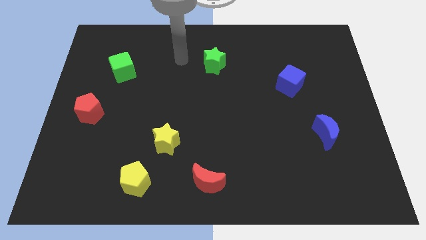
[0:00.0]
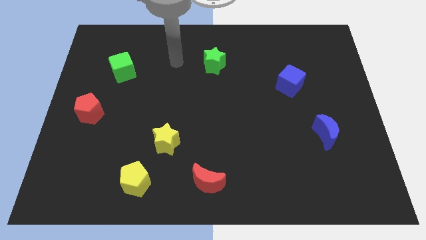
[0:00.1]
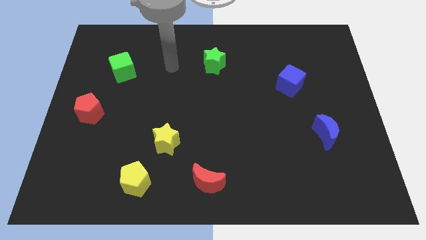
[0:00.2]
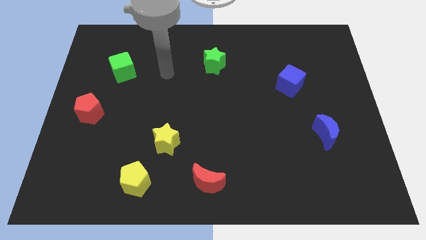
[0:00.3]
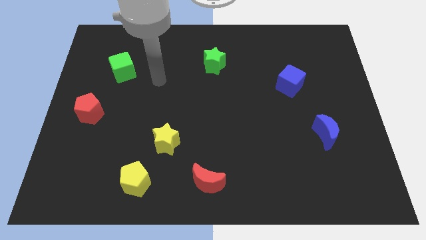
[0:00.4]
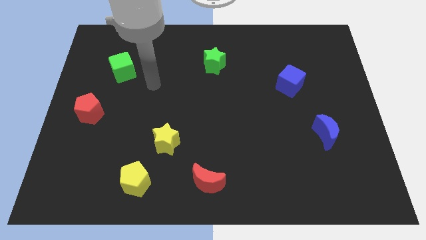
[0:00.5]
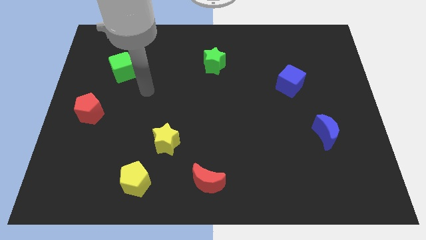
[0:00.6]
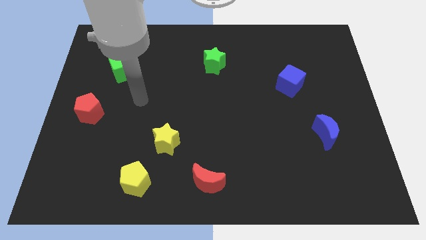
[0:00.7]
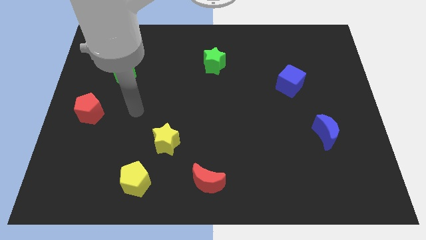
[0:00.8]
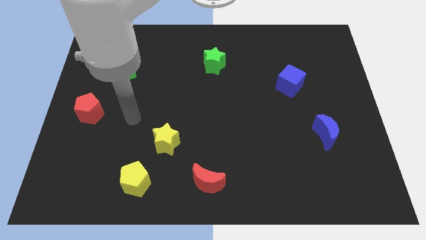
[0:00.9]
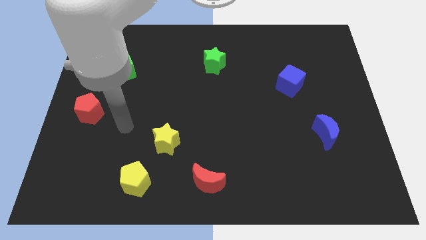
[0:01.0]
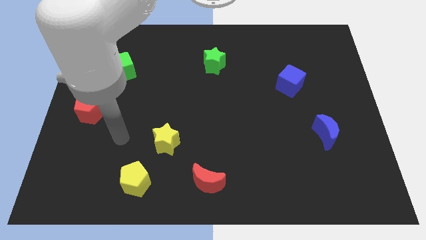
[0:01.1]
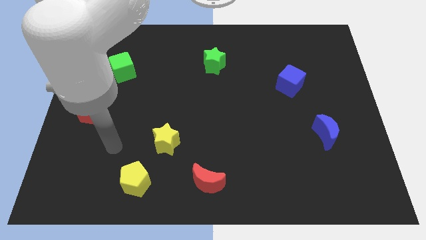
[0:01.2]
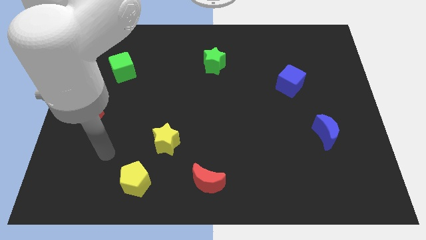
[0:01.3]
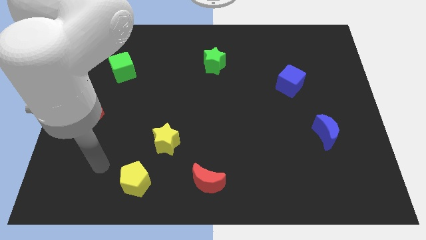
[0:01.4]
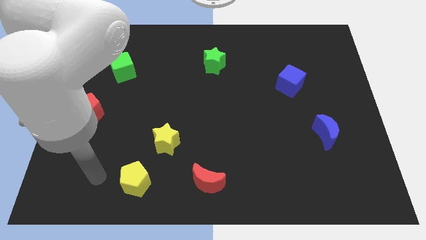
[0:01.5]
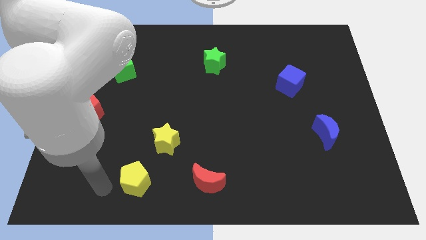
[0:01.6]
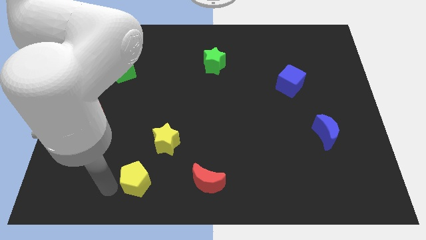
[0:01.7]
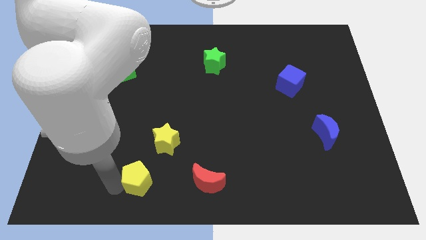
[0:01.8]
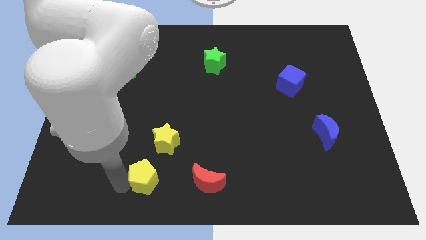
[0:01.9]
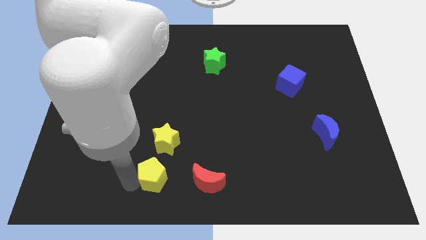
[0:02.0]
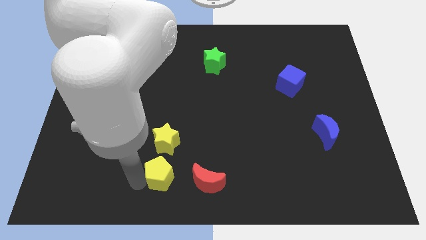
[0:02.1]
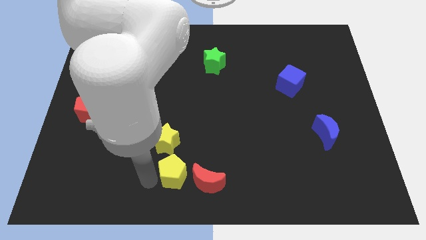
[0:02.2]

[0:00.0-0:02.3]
slightly push the yellow pentagon to the right

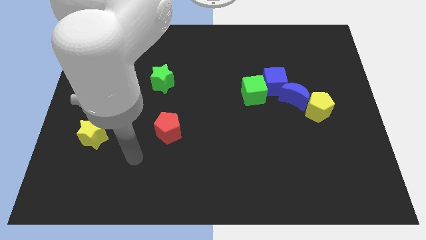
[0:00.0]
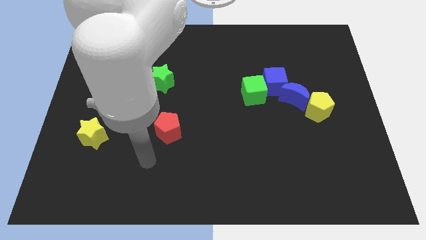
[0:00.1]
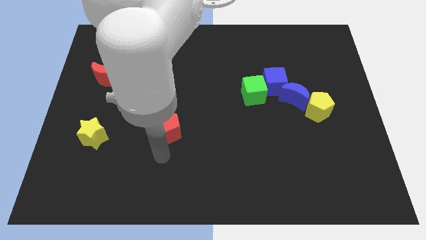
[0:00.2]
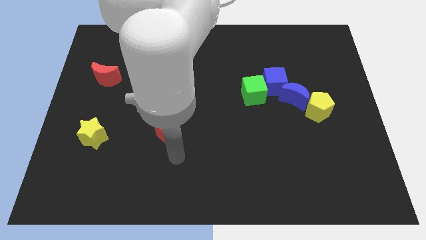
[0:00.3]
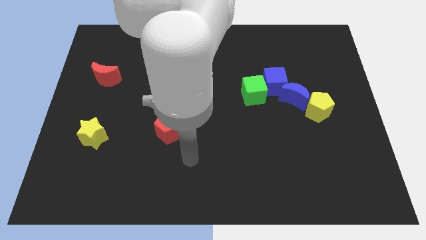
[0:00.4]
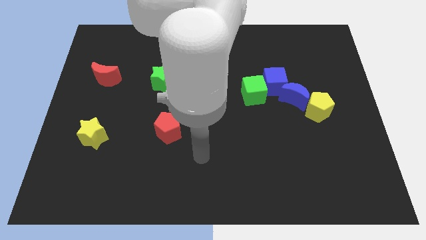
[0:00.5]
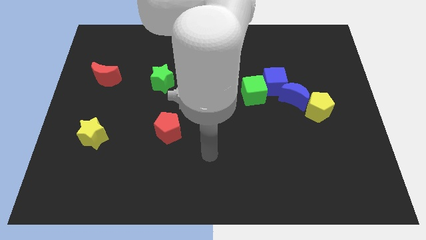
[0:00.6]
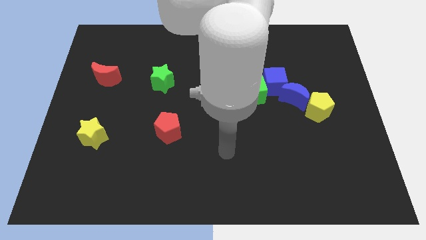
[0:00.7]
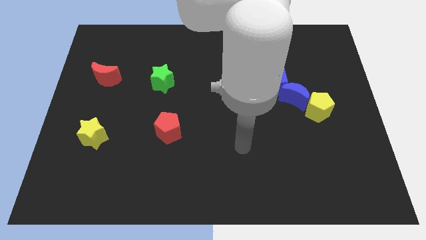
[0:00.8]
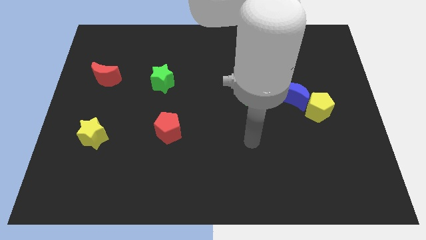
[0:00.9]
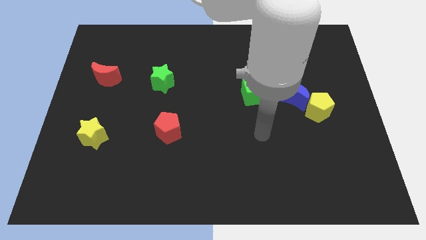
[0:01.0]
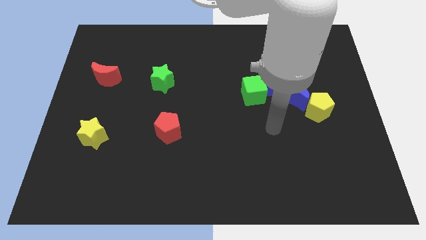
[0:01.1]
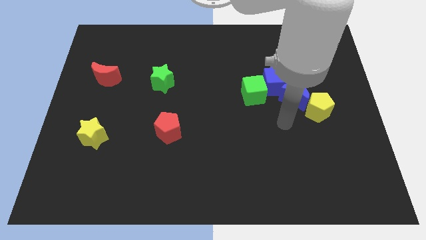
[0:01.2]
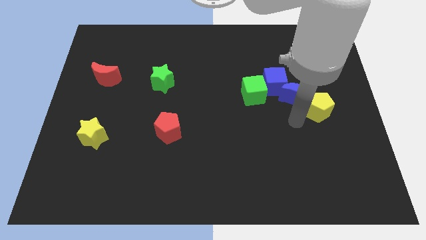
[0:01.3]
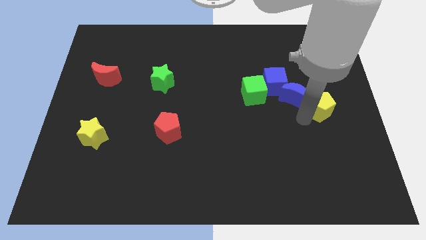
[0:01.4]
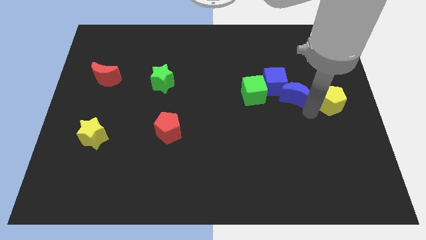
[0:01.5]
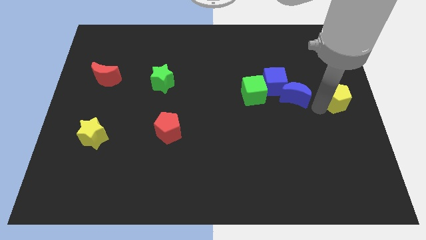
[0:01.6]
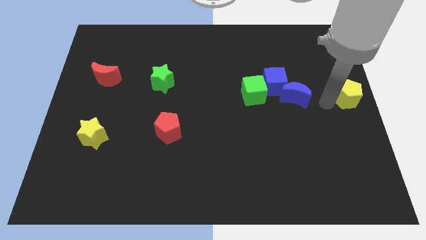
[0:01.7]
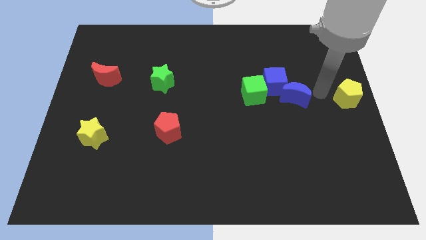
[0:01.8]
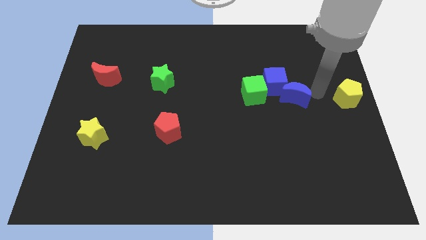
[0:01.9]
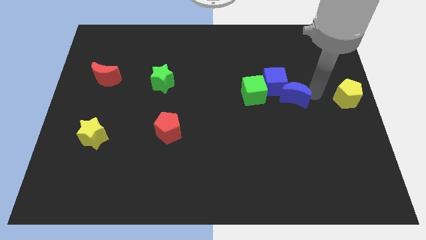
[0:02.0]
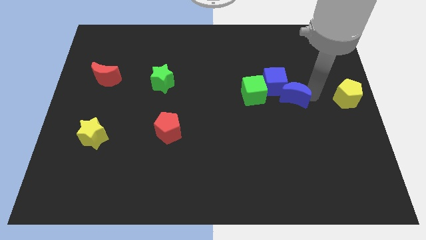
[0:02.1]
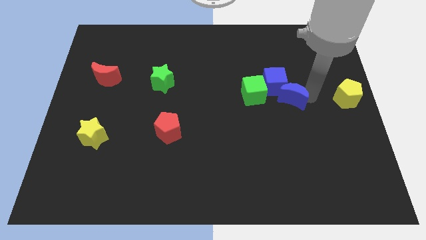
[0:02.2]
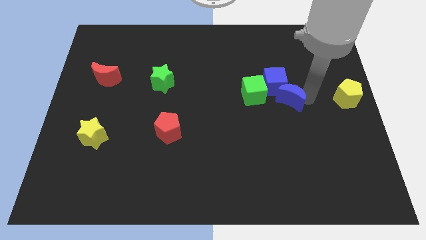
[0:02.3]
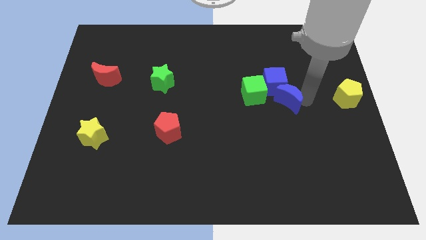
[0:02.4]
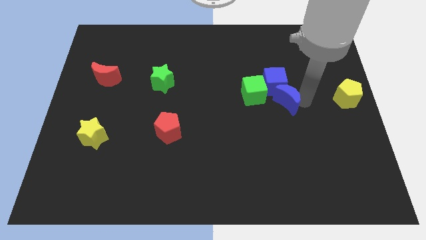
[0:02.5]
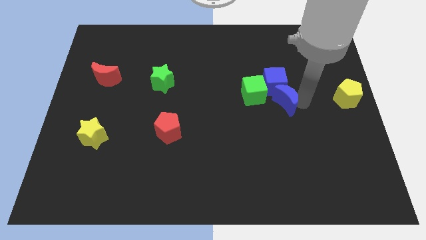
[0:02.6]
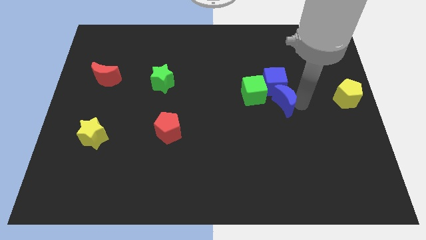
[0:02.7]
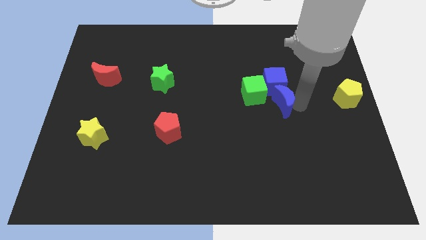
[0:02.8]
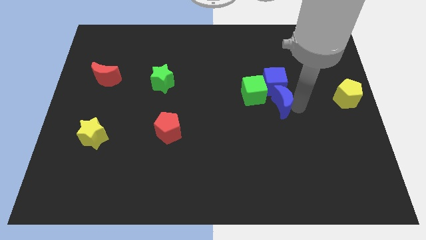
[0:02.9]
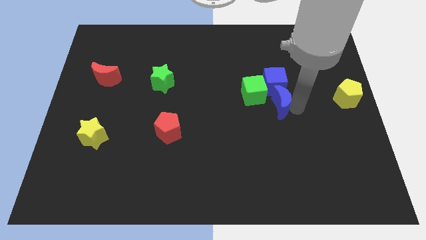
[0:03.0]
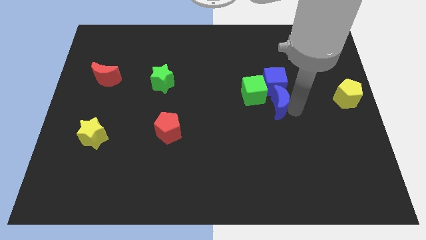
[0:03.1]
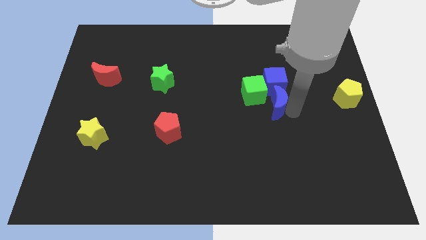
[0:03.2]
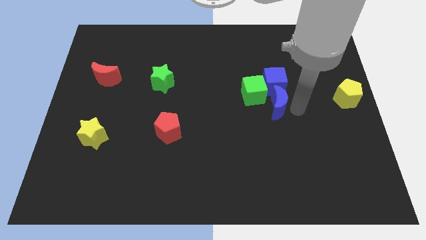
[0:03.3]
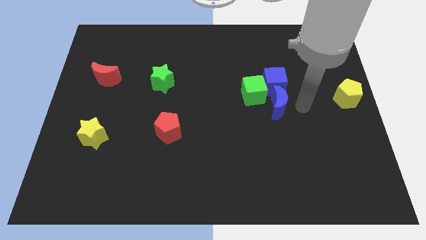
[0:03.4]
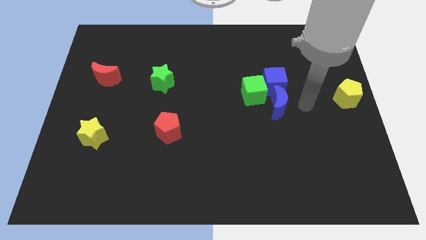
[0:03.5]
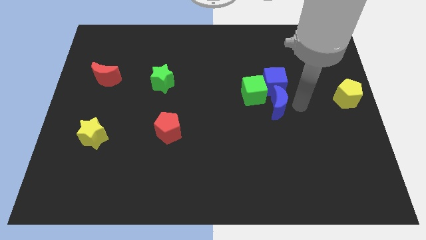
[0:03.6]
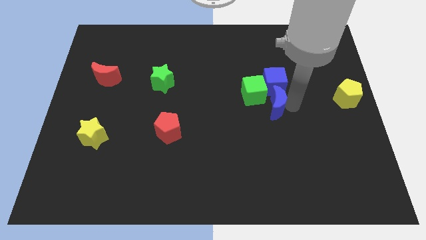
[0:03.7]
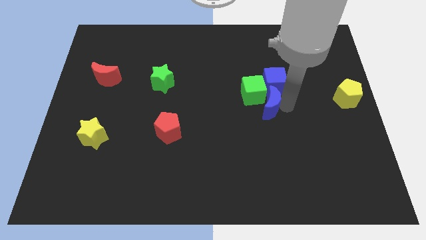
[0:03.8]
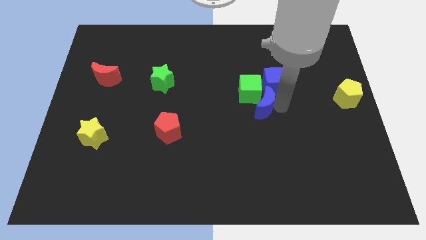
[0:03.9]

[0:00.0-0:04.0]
slightly move the blue moon left

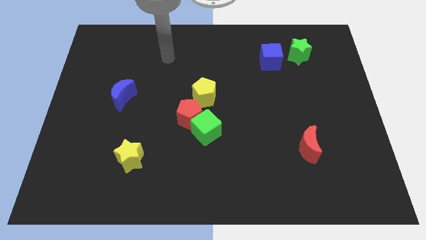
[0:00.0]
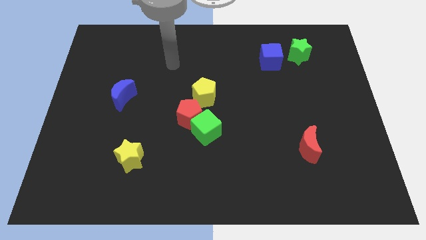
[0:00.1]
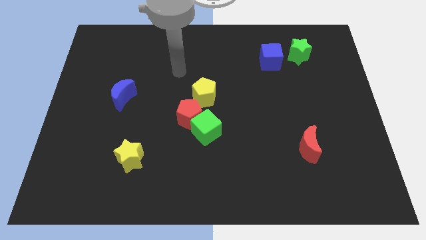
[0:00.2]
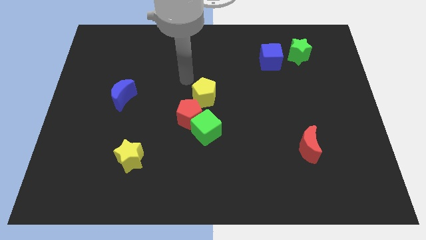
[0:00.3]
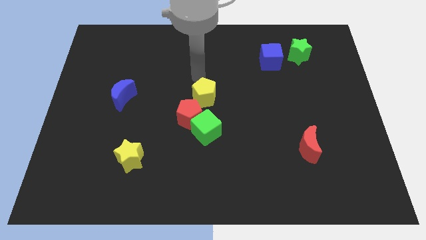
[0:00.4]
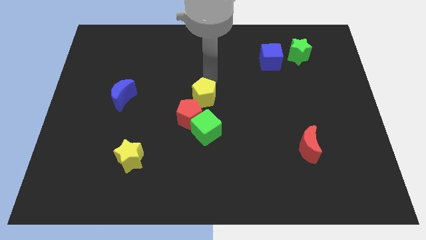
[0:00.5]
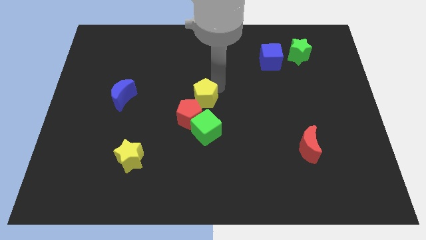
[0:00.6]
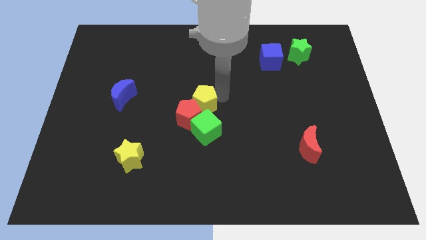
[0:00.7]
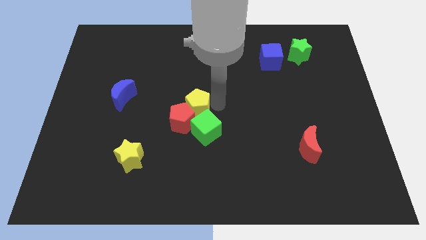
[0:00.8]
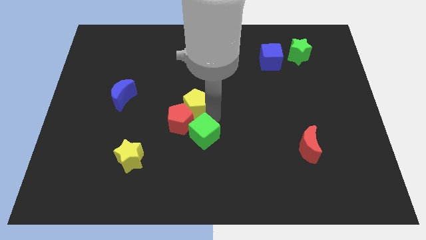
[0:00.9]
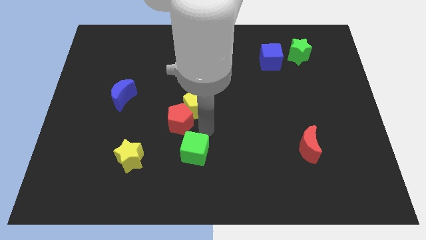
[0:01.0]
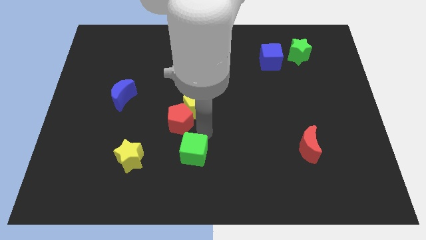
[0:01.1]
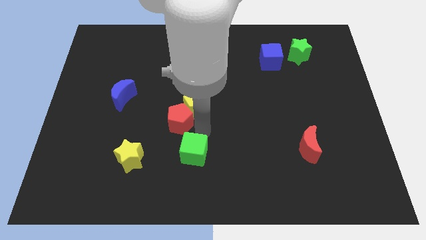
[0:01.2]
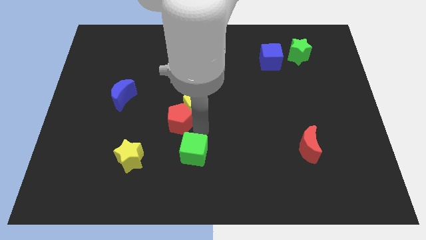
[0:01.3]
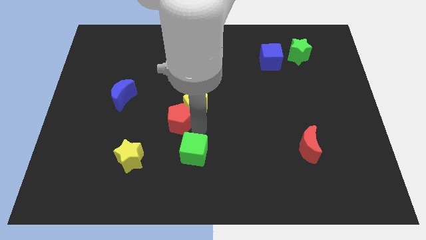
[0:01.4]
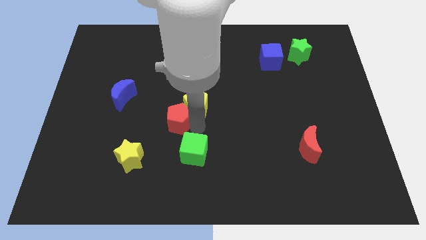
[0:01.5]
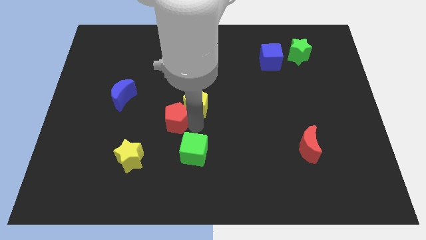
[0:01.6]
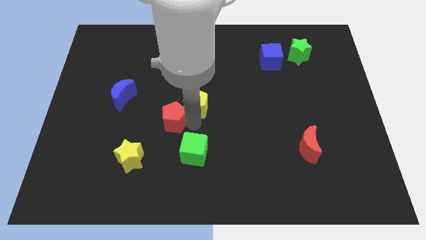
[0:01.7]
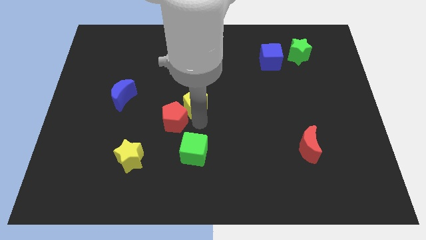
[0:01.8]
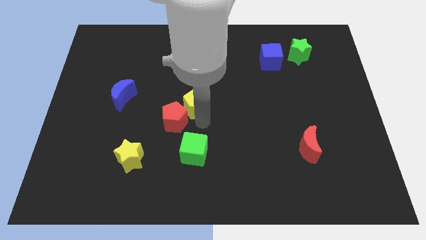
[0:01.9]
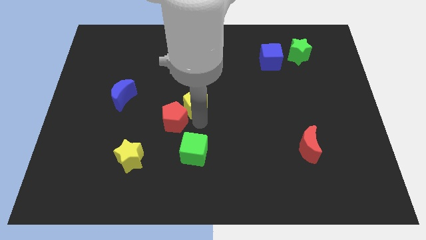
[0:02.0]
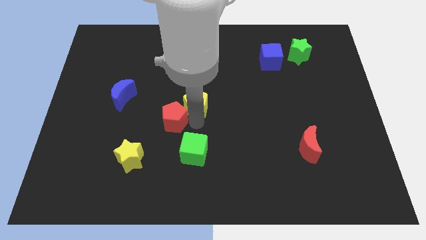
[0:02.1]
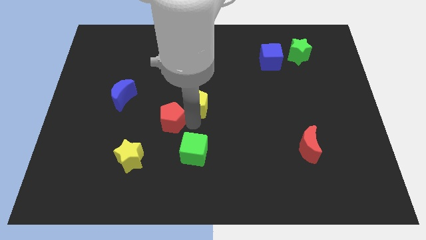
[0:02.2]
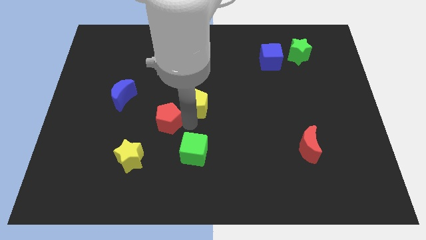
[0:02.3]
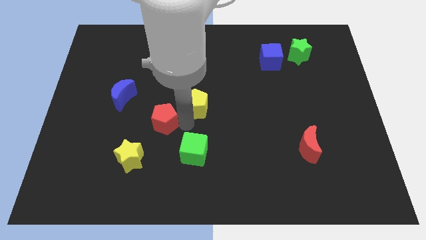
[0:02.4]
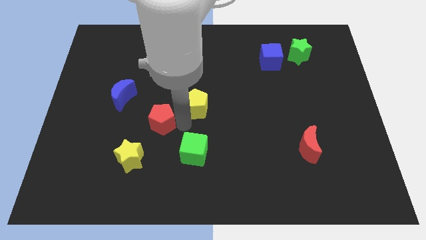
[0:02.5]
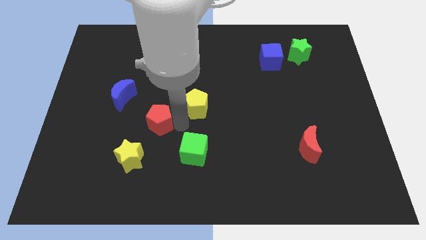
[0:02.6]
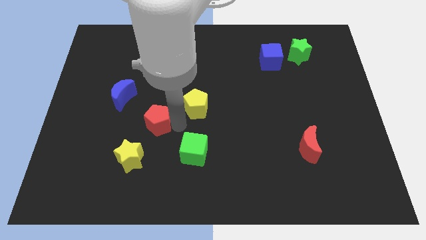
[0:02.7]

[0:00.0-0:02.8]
move the red pentagon to the left a little bit
